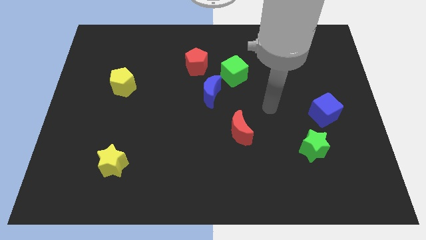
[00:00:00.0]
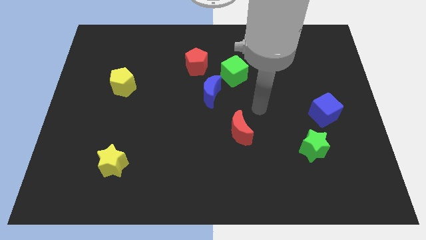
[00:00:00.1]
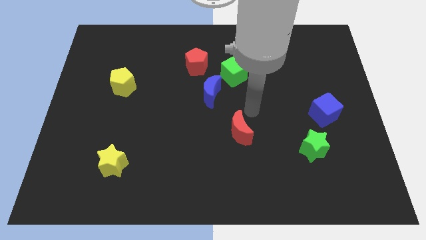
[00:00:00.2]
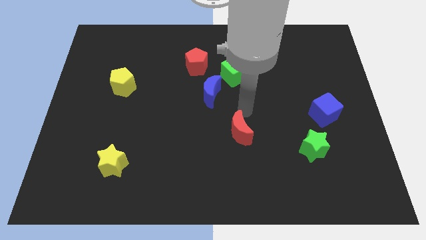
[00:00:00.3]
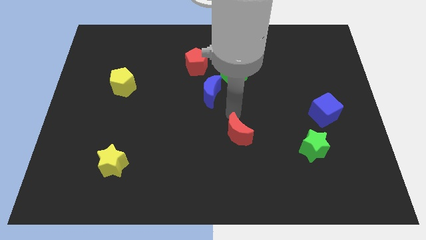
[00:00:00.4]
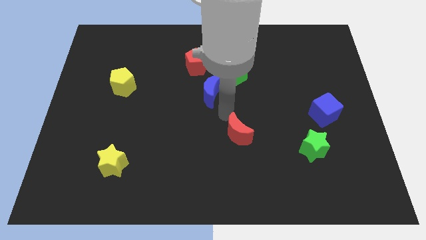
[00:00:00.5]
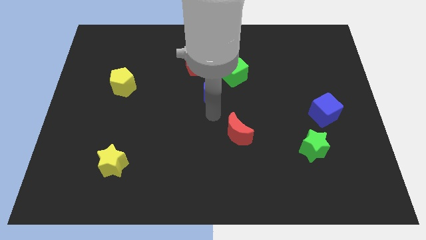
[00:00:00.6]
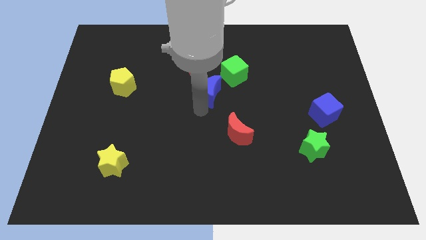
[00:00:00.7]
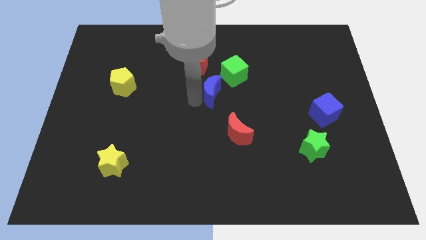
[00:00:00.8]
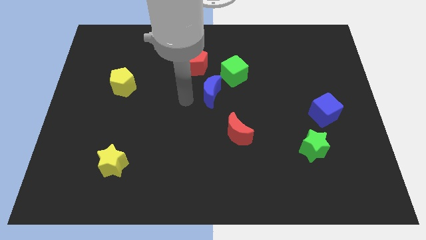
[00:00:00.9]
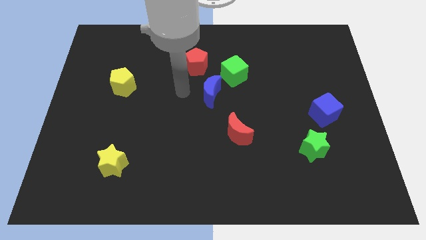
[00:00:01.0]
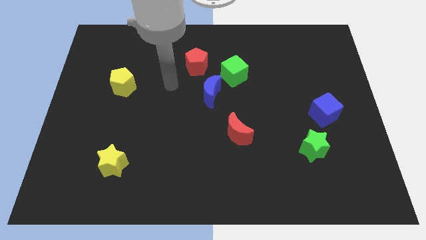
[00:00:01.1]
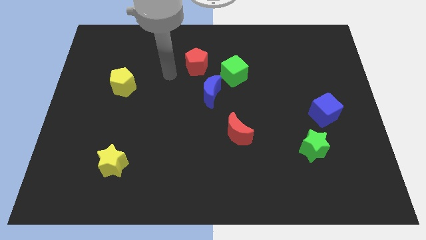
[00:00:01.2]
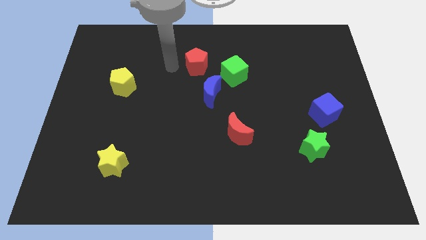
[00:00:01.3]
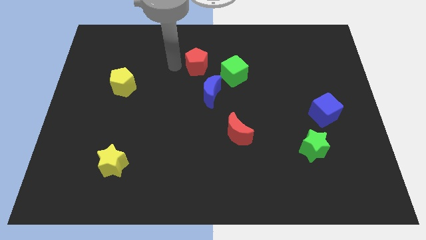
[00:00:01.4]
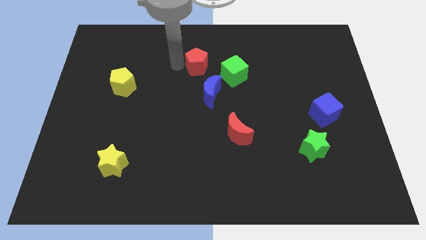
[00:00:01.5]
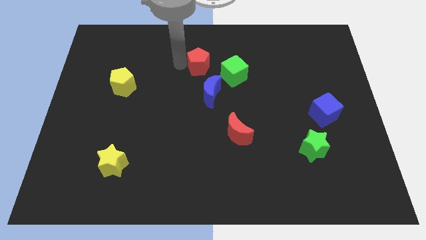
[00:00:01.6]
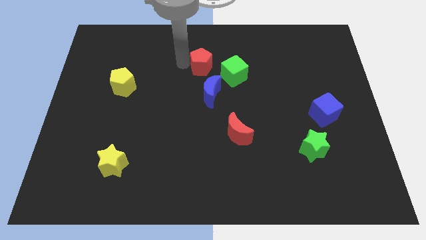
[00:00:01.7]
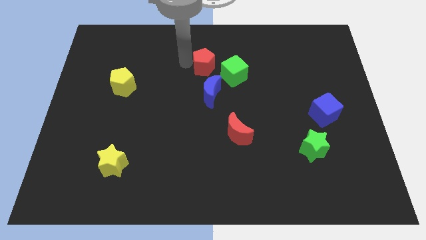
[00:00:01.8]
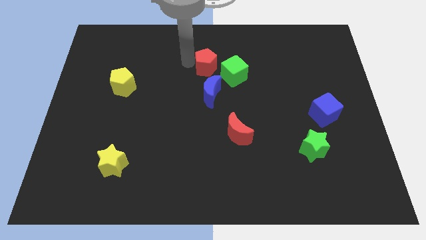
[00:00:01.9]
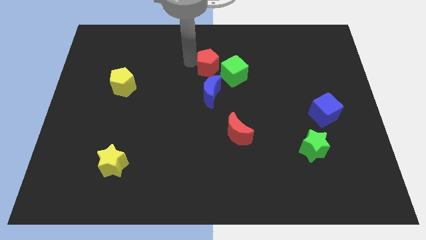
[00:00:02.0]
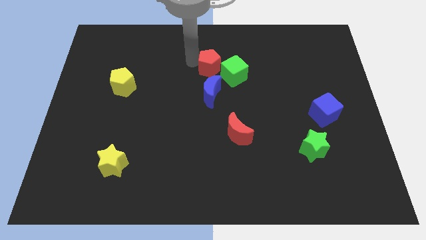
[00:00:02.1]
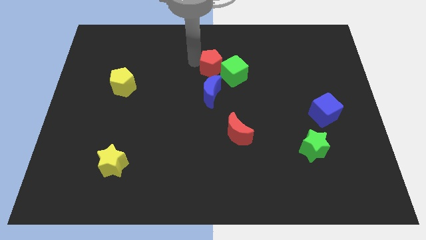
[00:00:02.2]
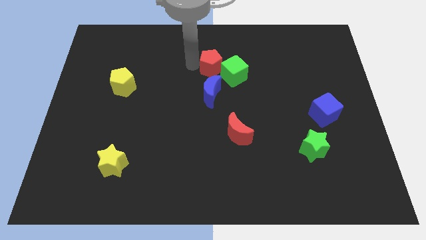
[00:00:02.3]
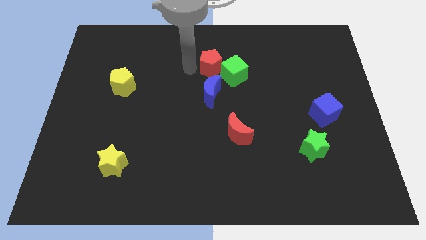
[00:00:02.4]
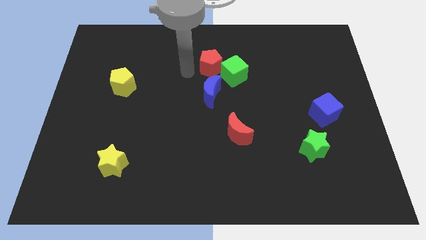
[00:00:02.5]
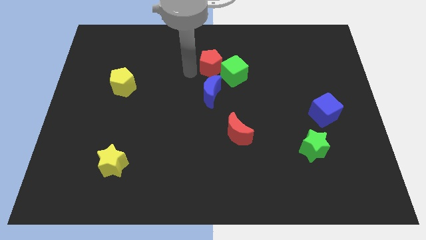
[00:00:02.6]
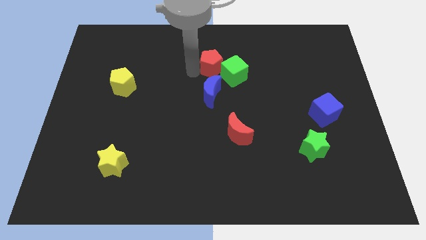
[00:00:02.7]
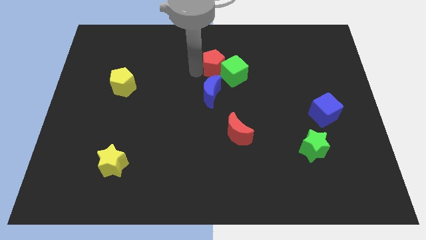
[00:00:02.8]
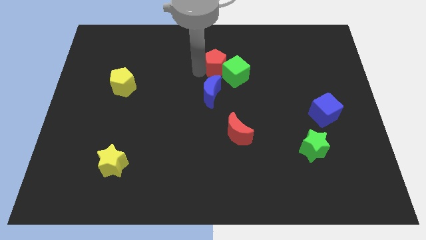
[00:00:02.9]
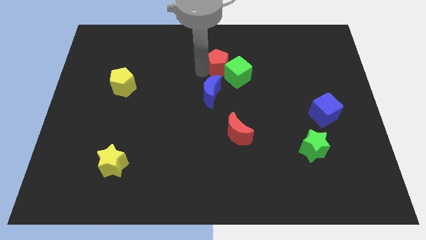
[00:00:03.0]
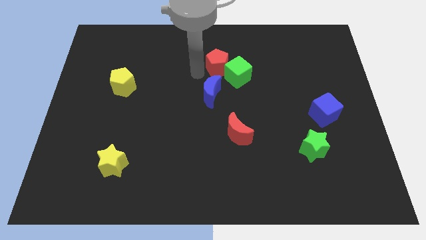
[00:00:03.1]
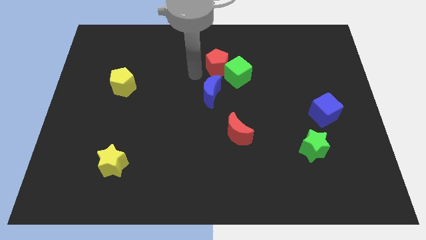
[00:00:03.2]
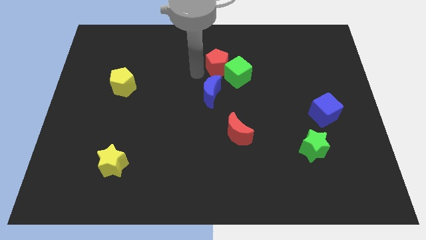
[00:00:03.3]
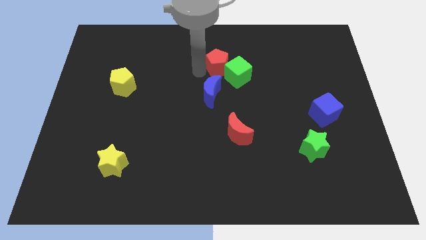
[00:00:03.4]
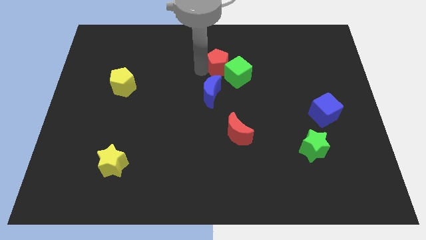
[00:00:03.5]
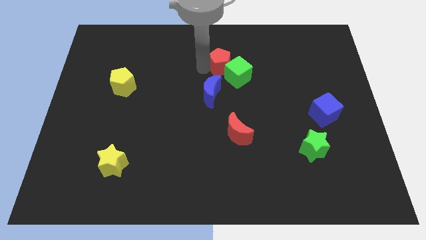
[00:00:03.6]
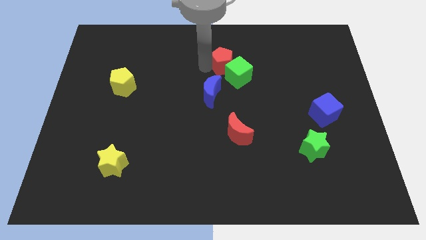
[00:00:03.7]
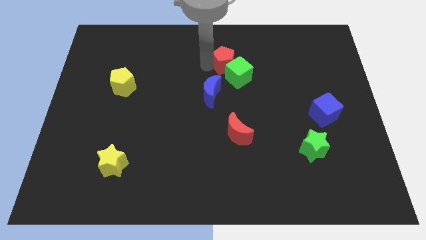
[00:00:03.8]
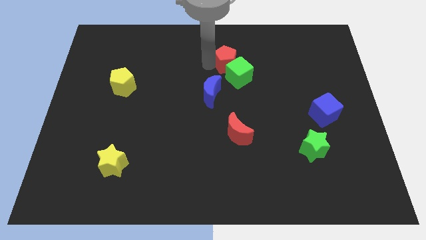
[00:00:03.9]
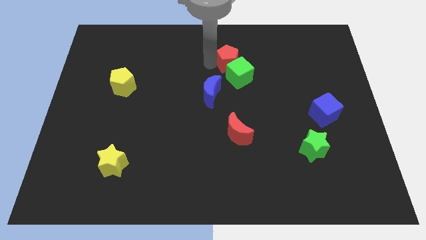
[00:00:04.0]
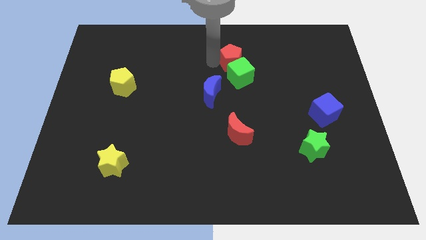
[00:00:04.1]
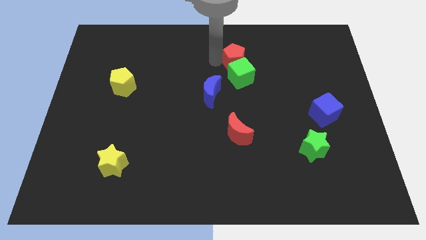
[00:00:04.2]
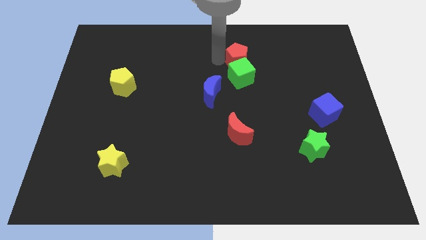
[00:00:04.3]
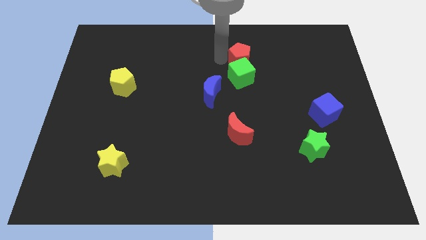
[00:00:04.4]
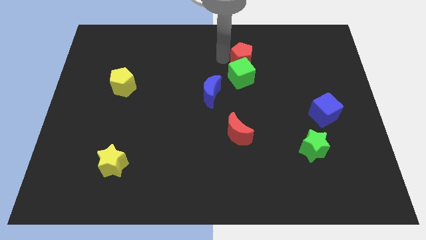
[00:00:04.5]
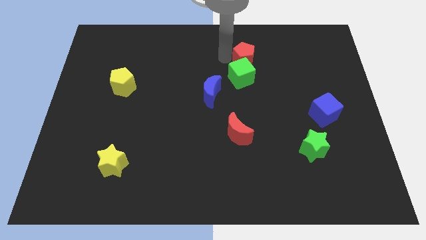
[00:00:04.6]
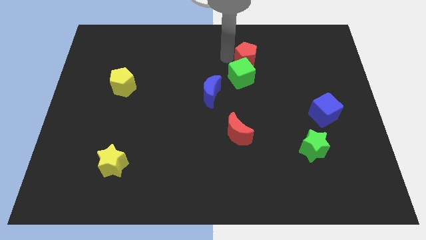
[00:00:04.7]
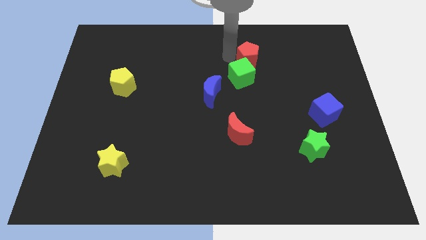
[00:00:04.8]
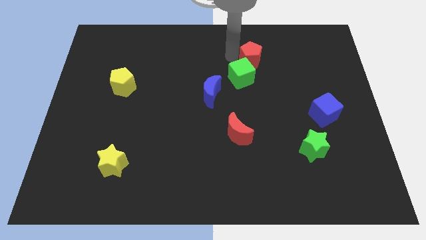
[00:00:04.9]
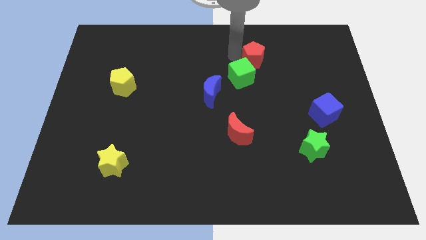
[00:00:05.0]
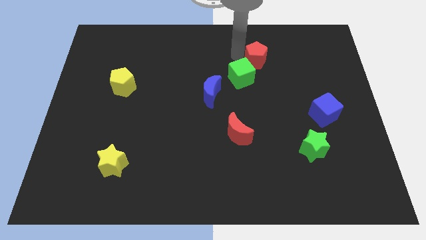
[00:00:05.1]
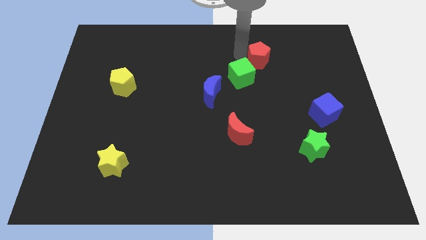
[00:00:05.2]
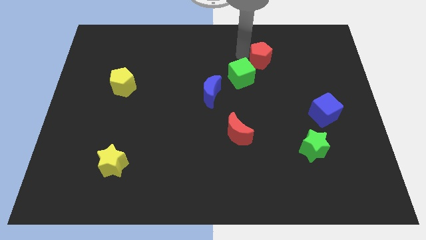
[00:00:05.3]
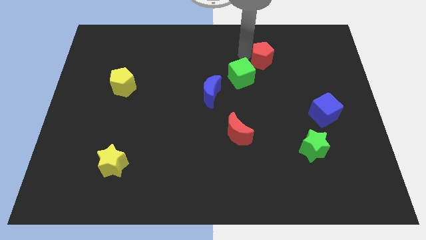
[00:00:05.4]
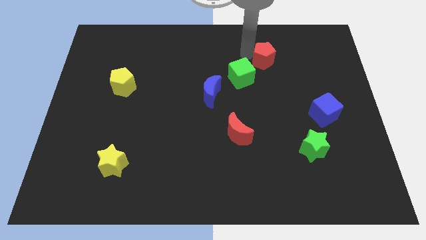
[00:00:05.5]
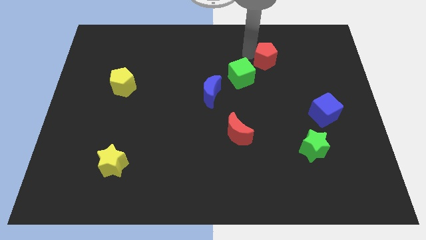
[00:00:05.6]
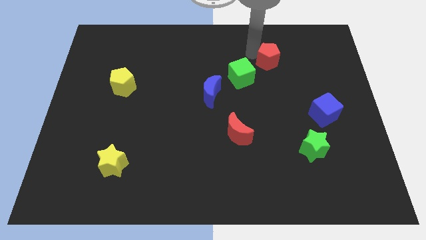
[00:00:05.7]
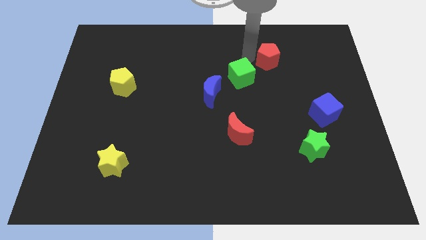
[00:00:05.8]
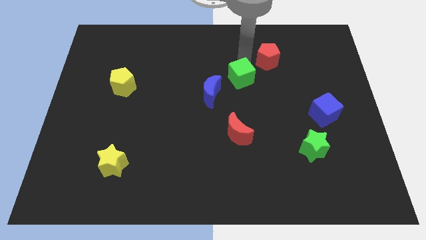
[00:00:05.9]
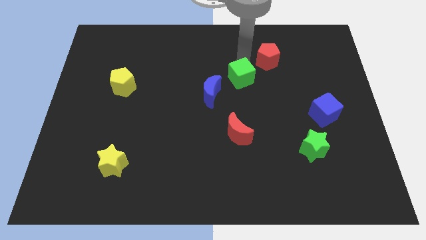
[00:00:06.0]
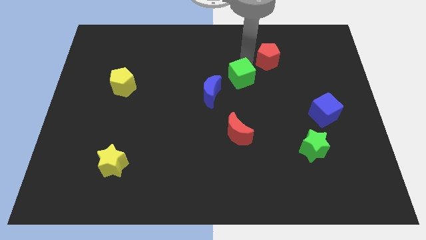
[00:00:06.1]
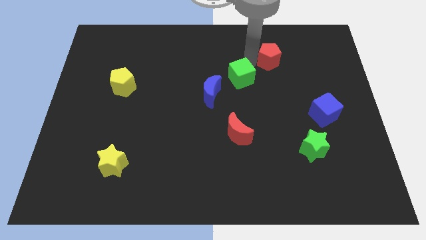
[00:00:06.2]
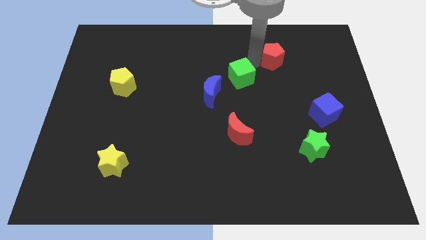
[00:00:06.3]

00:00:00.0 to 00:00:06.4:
push the red pentagon right

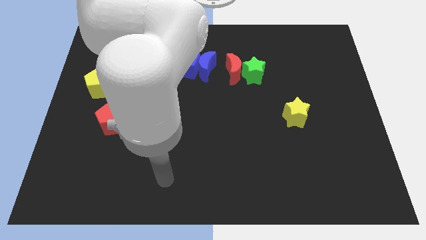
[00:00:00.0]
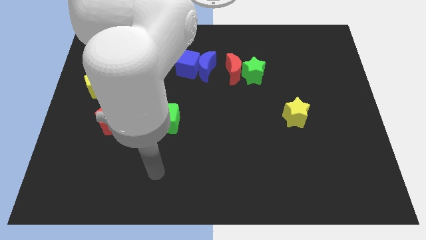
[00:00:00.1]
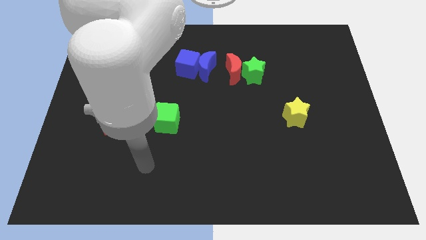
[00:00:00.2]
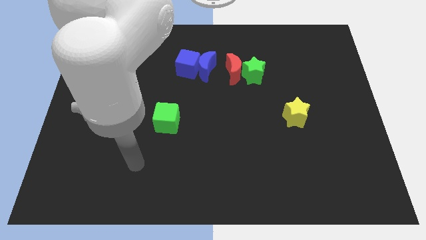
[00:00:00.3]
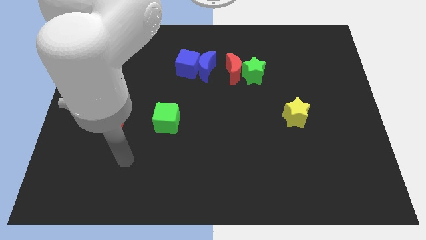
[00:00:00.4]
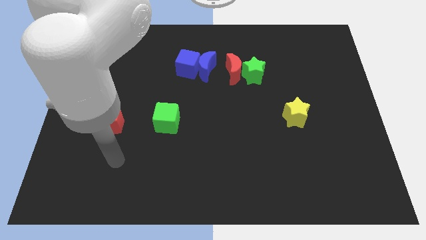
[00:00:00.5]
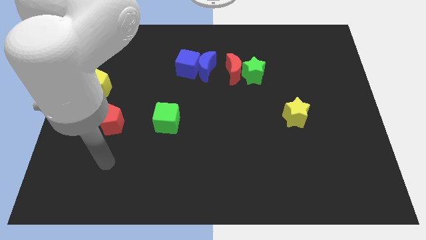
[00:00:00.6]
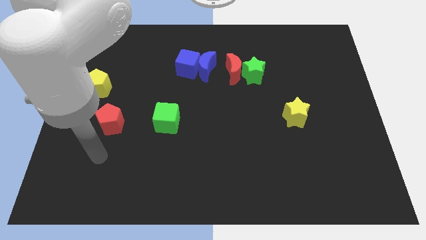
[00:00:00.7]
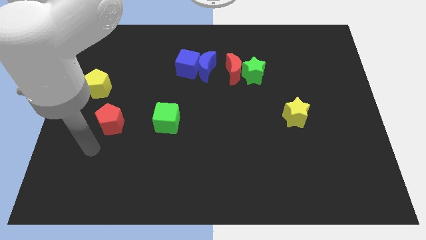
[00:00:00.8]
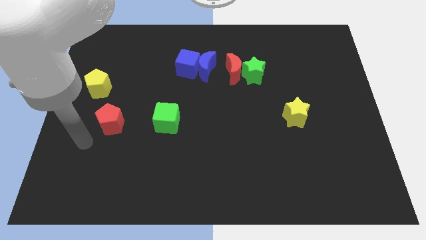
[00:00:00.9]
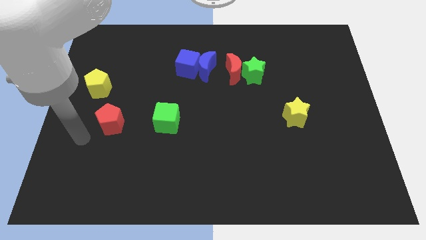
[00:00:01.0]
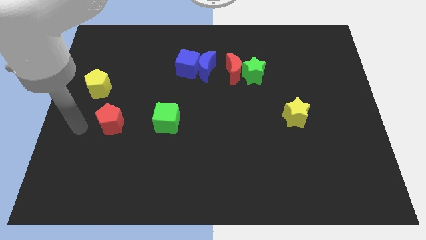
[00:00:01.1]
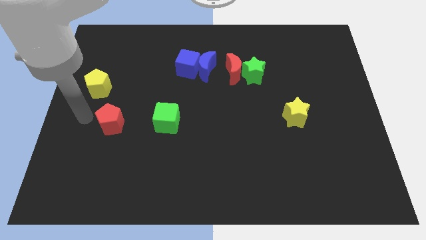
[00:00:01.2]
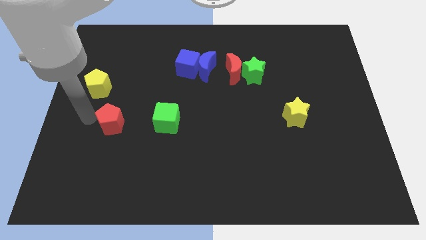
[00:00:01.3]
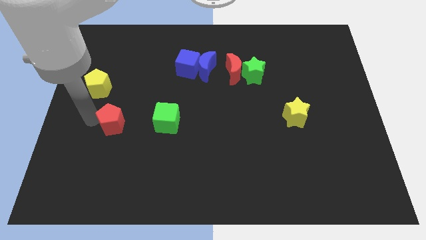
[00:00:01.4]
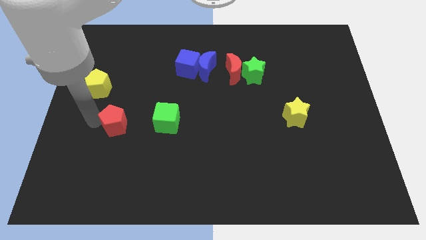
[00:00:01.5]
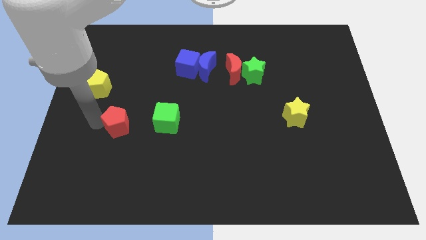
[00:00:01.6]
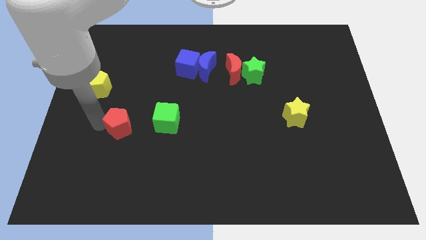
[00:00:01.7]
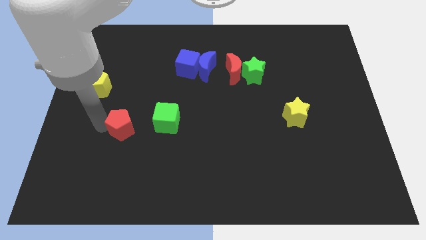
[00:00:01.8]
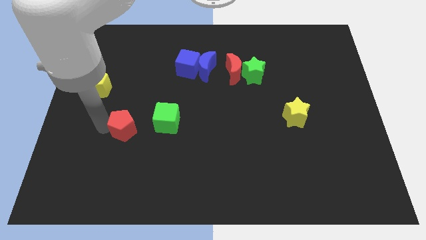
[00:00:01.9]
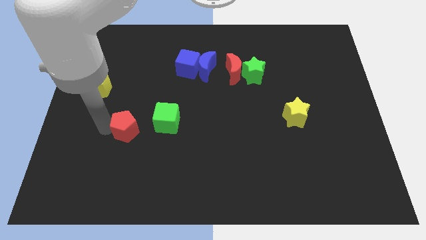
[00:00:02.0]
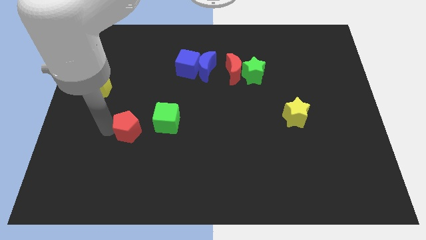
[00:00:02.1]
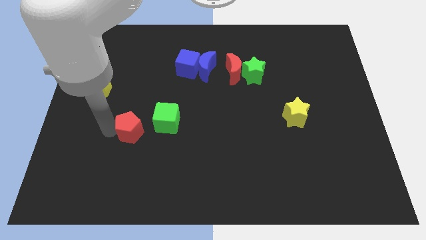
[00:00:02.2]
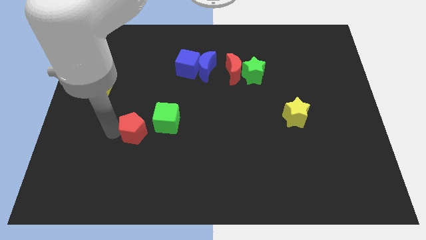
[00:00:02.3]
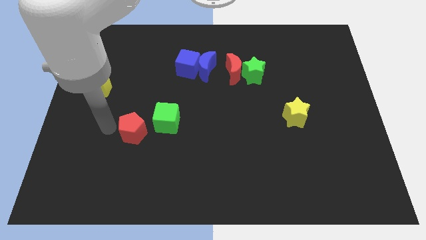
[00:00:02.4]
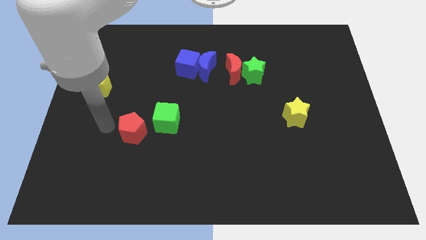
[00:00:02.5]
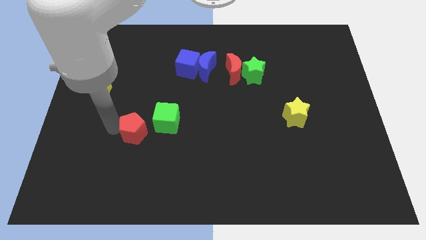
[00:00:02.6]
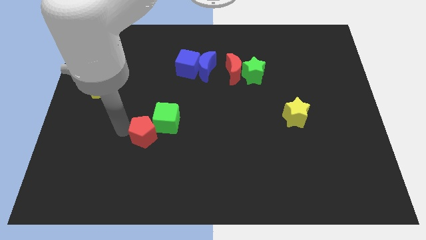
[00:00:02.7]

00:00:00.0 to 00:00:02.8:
slightly push the red pentagon right
